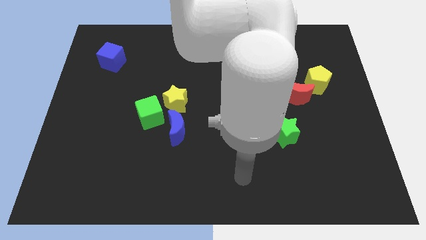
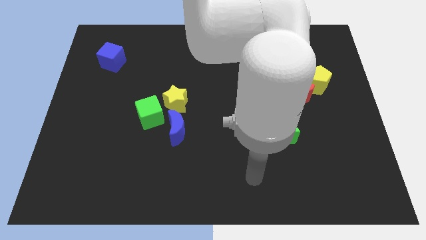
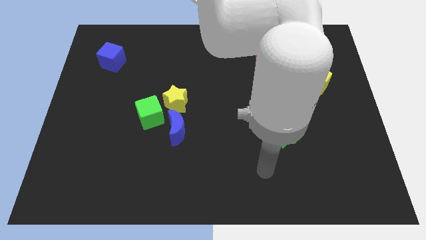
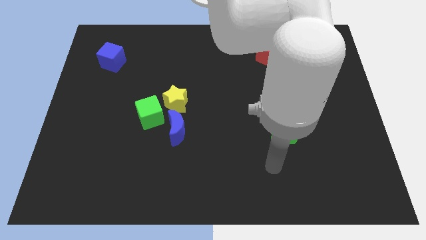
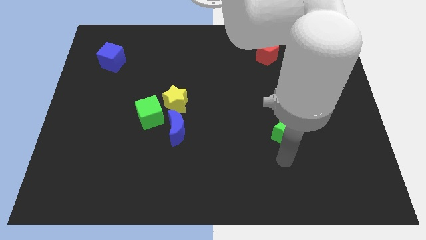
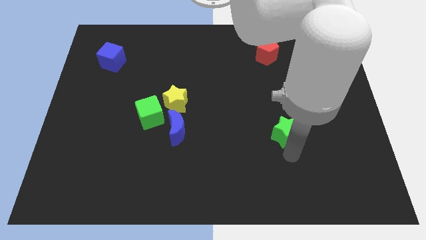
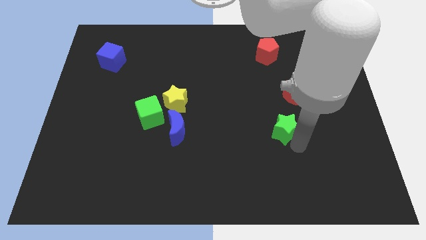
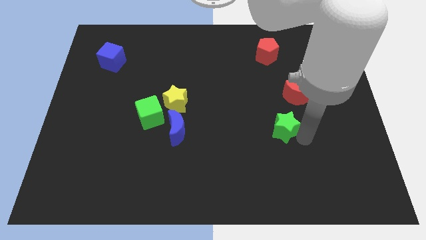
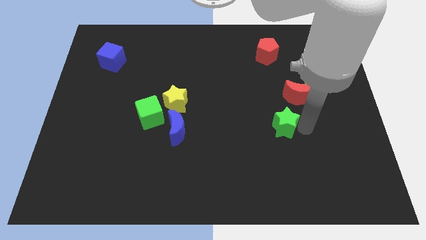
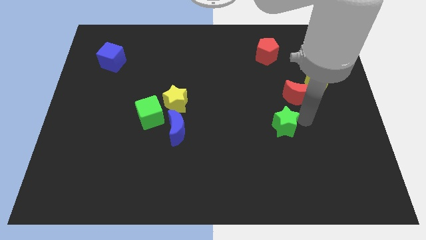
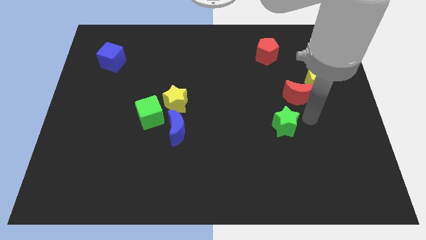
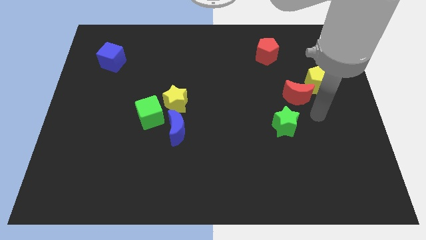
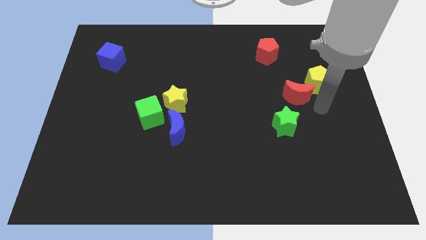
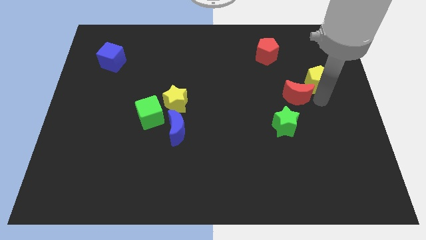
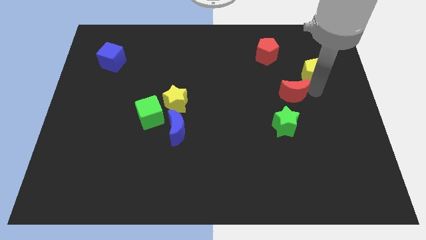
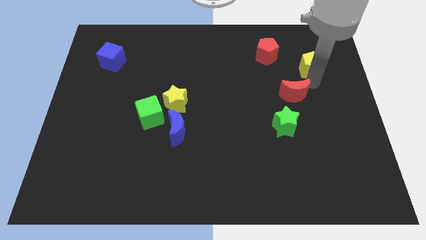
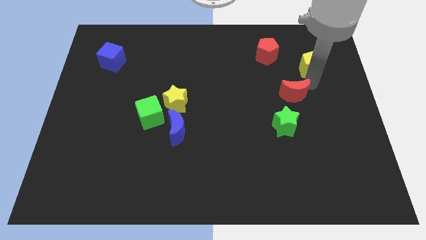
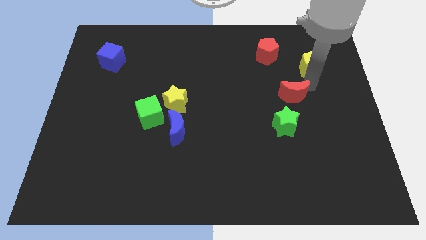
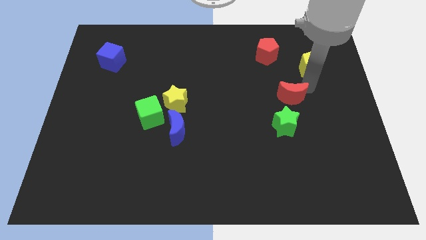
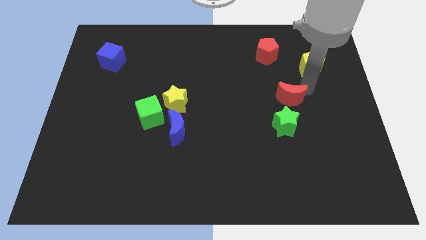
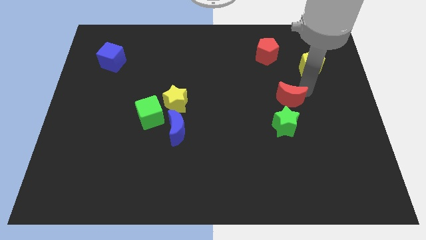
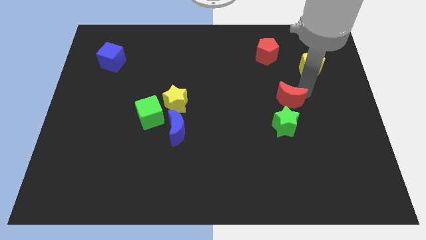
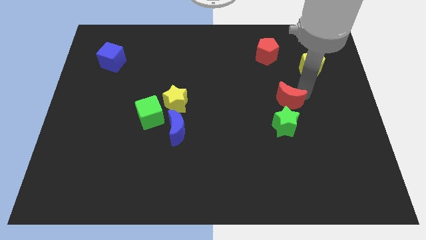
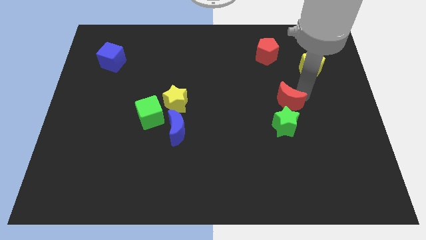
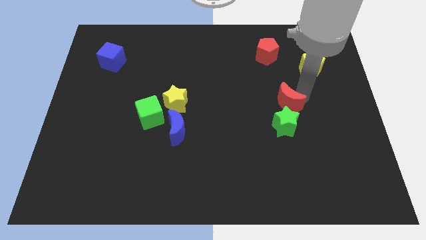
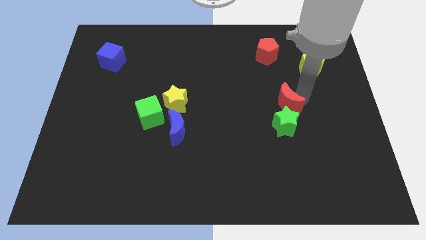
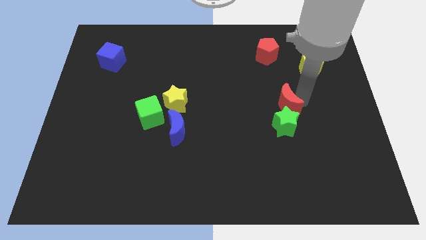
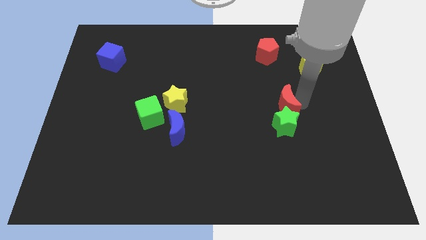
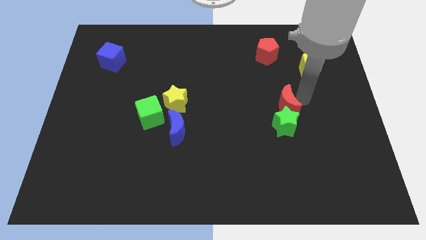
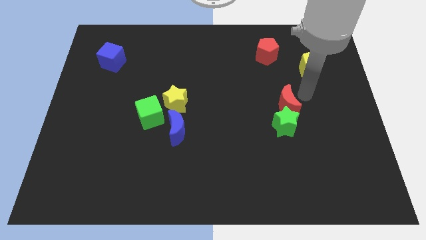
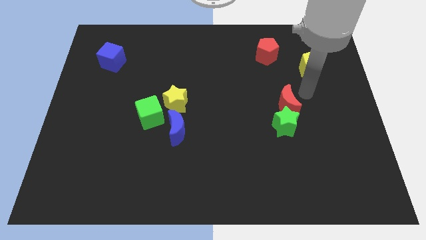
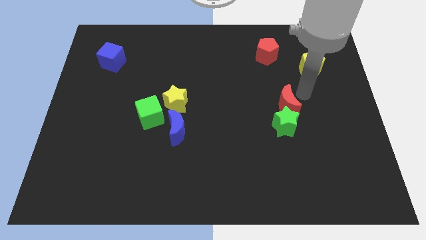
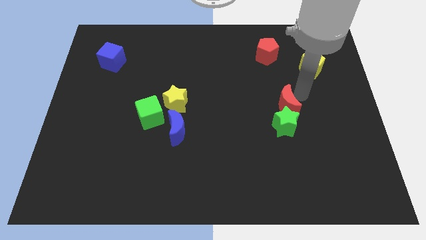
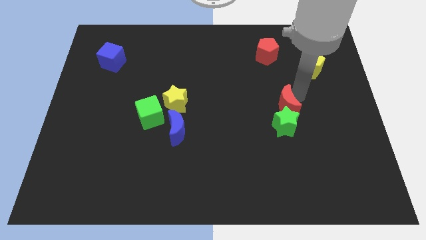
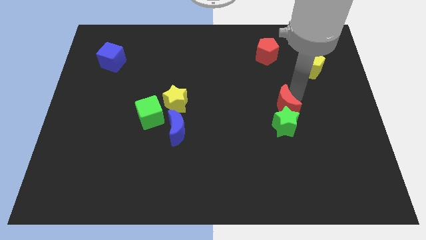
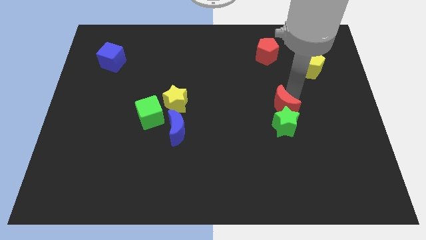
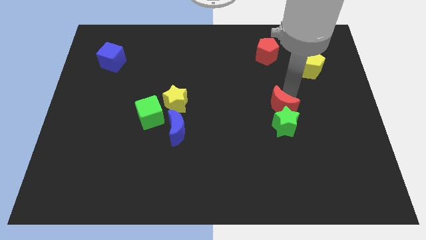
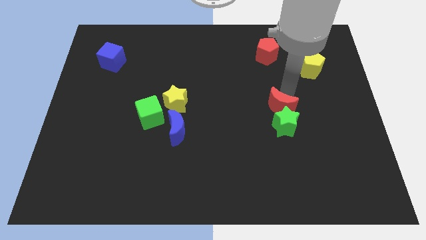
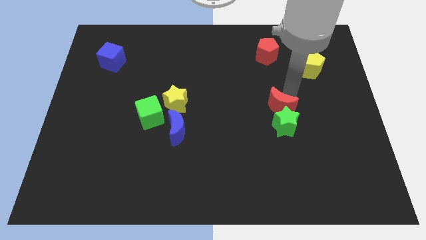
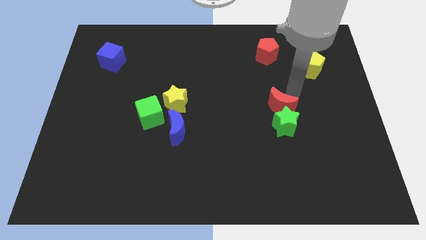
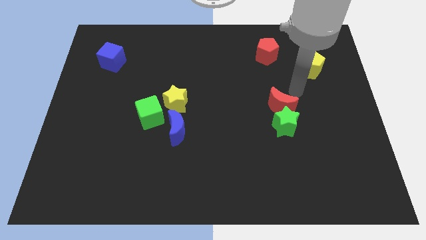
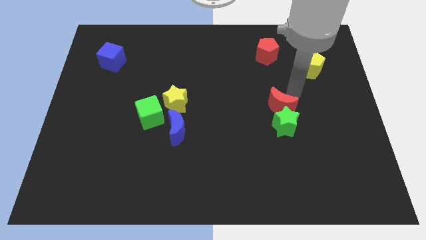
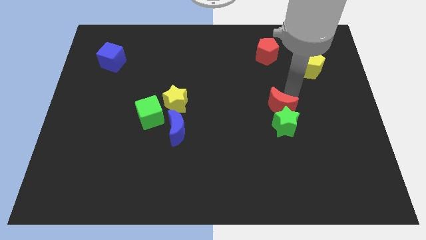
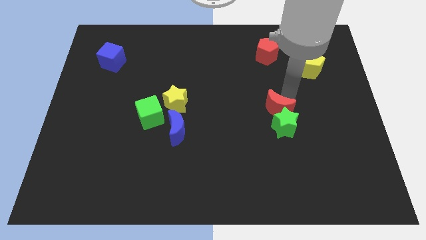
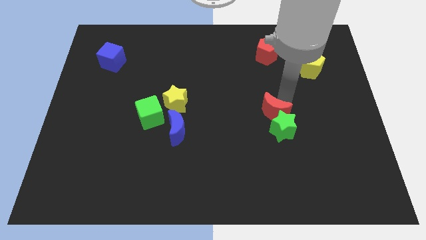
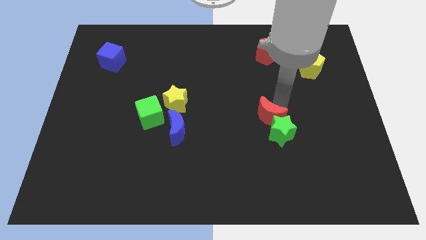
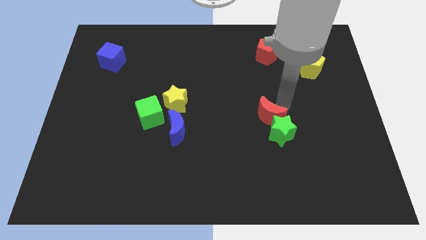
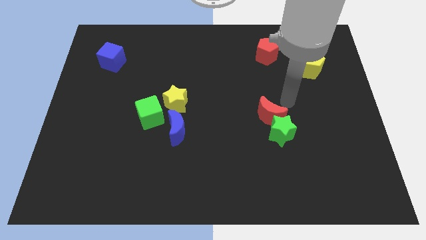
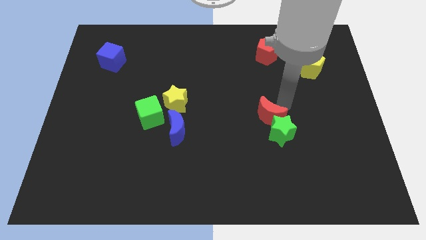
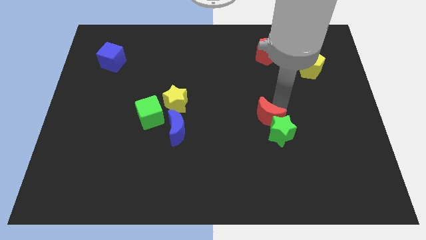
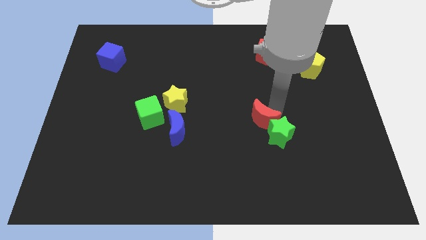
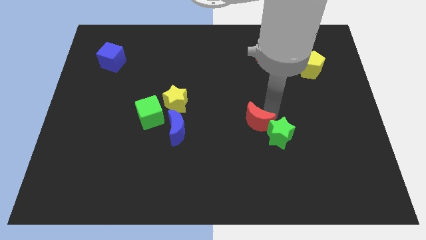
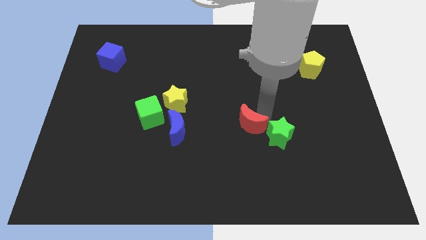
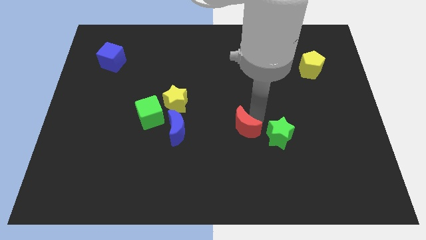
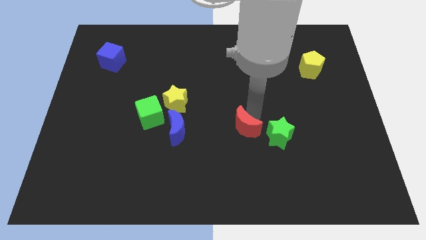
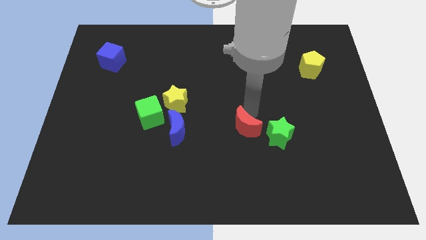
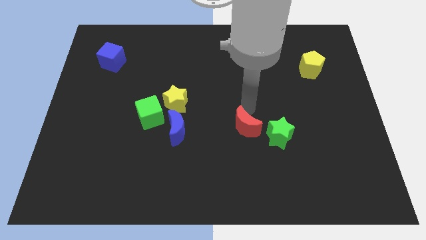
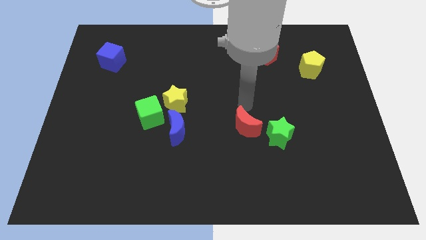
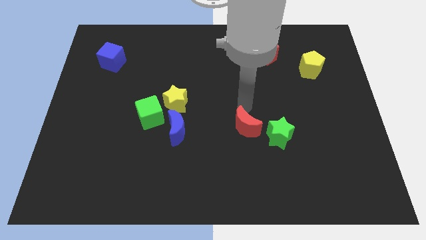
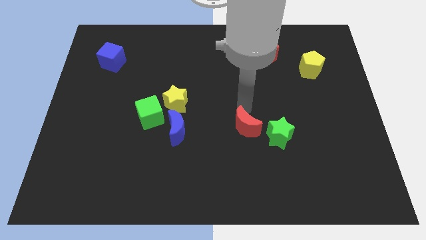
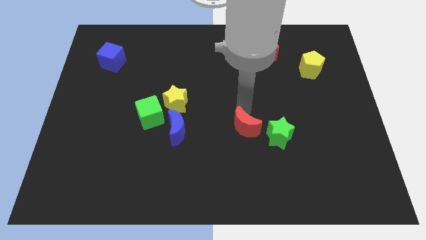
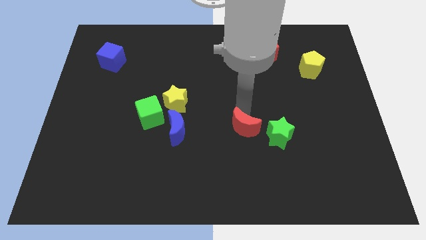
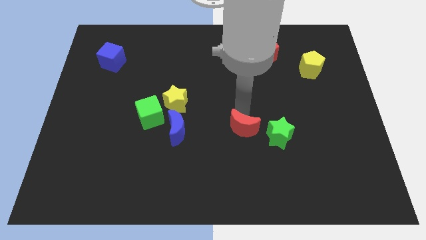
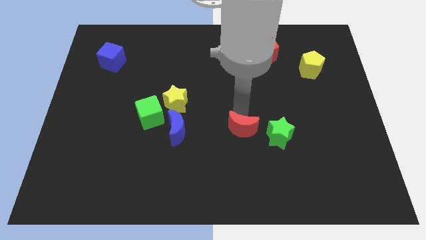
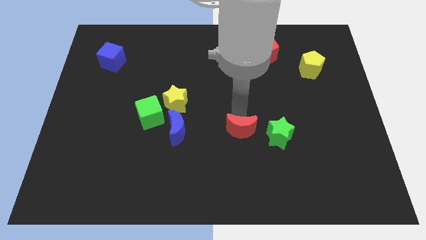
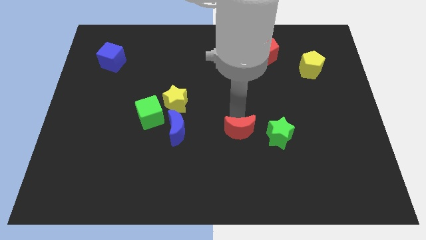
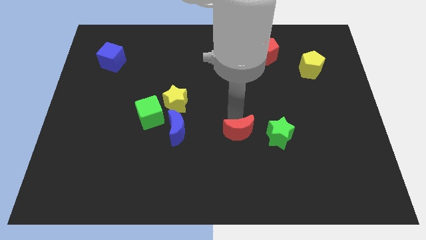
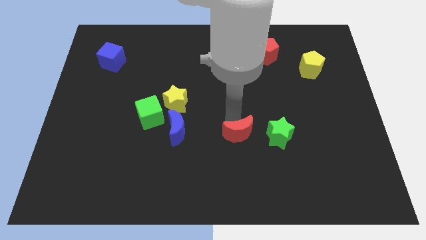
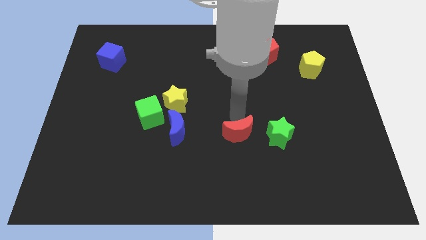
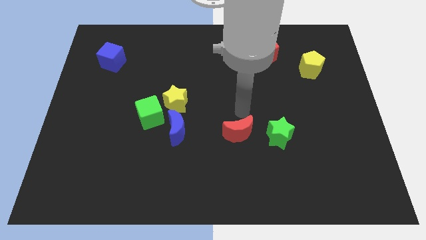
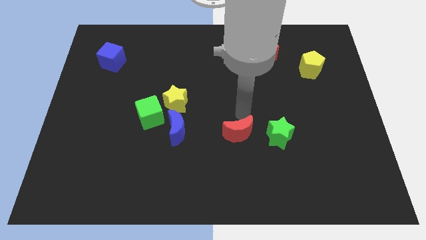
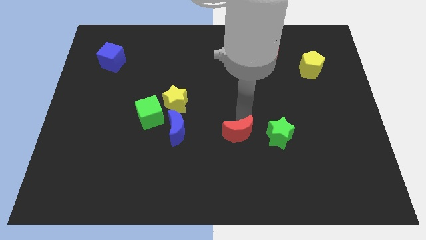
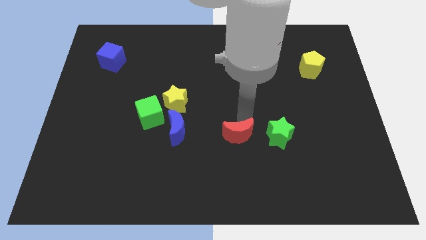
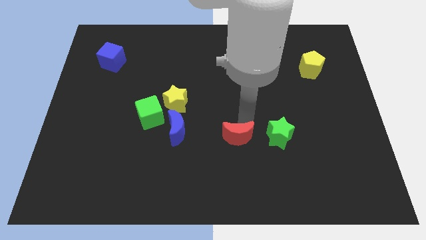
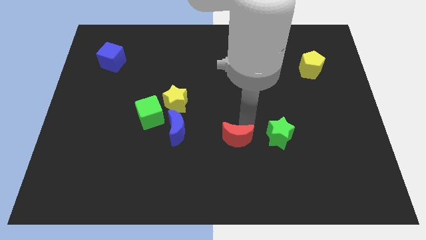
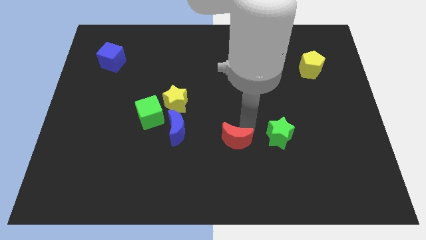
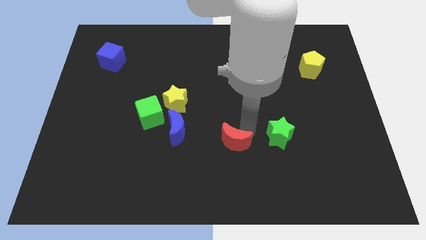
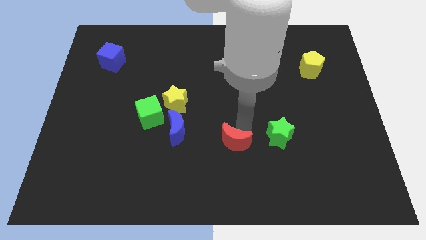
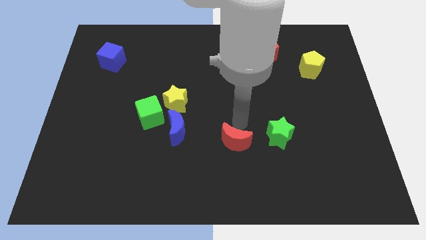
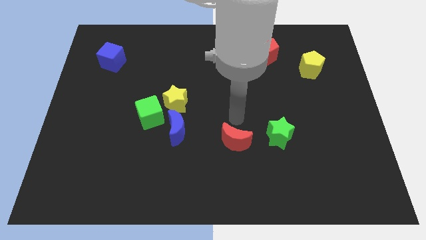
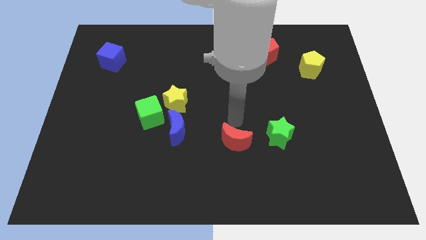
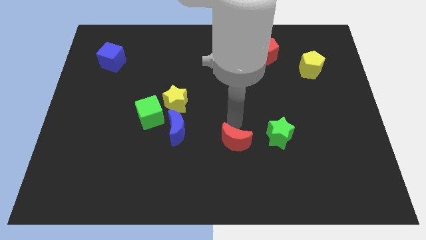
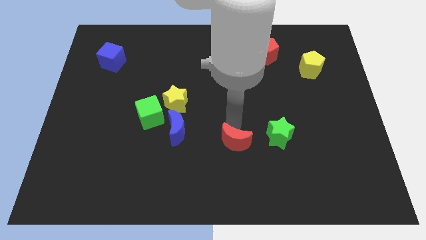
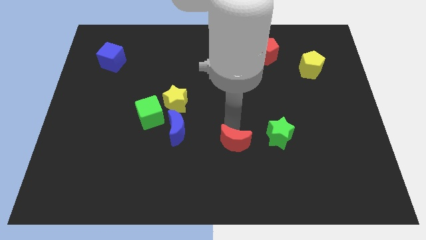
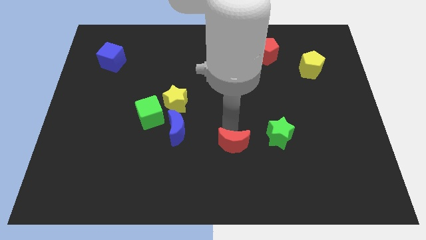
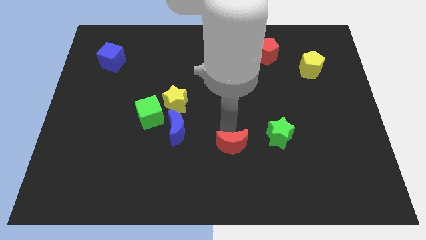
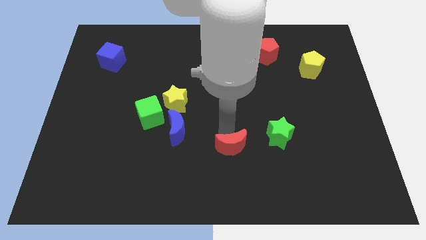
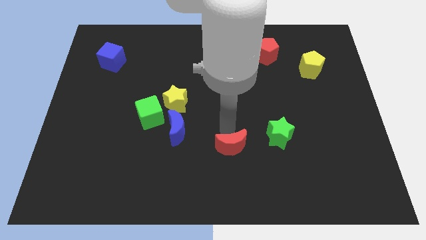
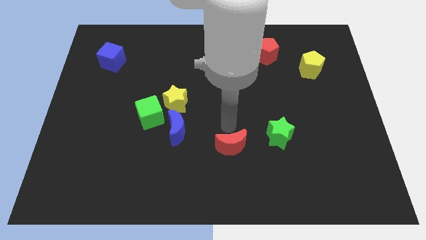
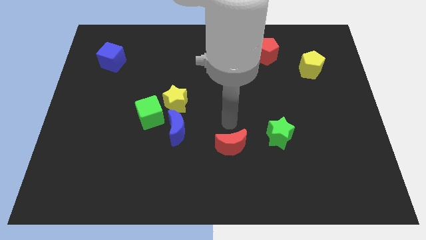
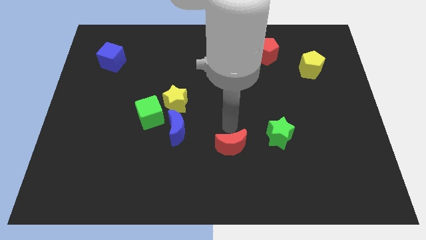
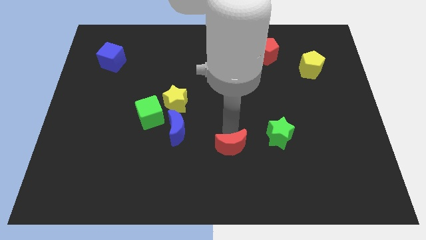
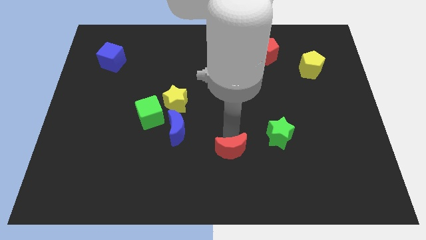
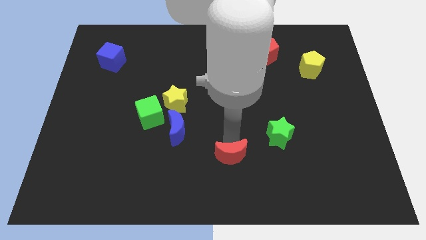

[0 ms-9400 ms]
move the red moon to the bottom side
